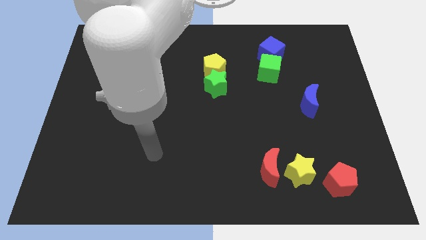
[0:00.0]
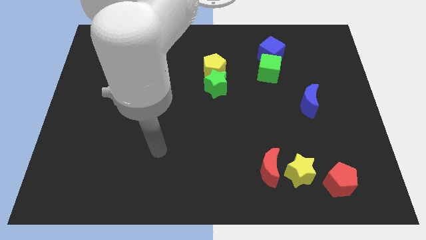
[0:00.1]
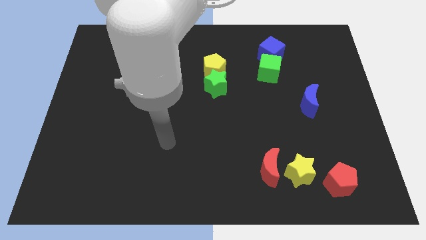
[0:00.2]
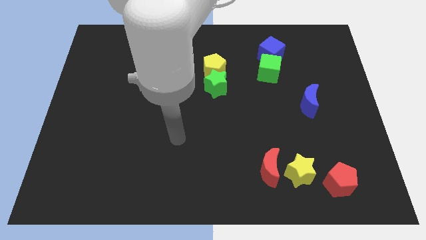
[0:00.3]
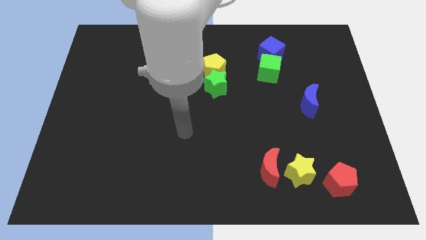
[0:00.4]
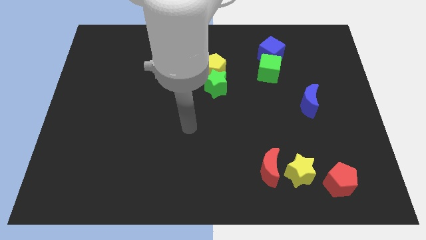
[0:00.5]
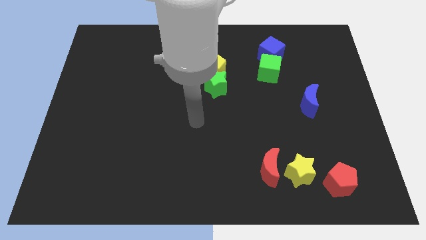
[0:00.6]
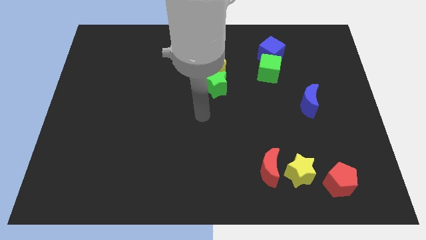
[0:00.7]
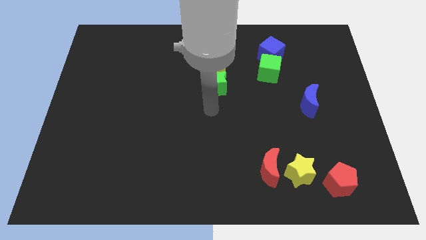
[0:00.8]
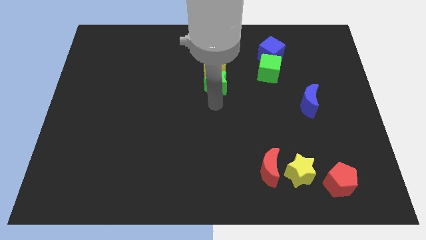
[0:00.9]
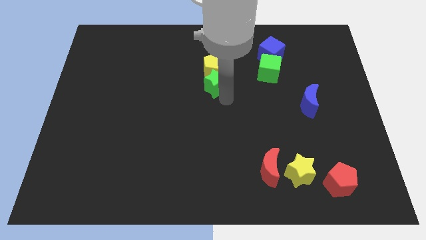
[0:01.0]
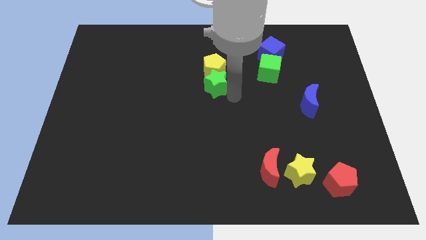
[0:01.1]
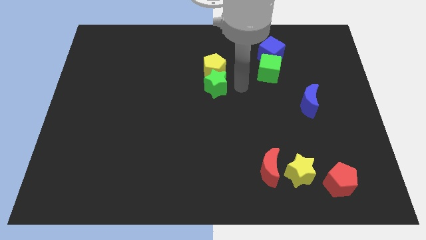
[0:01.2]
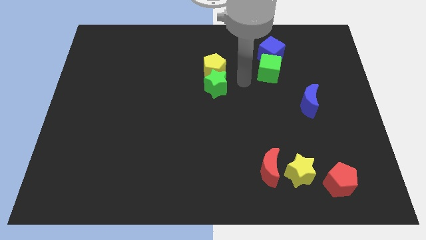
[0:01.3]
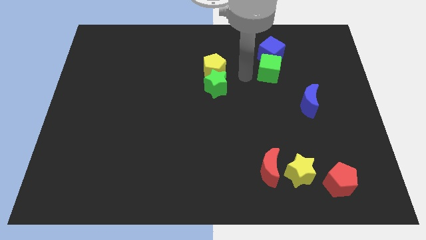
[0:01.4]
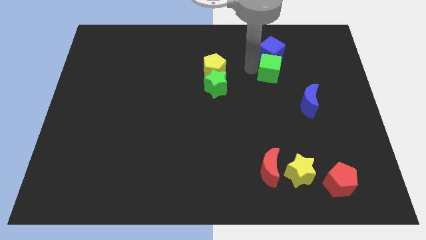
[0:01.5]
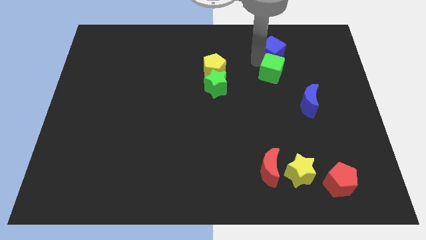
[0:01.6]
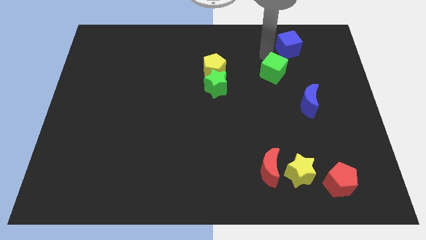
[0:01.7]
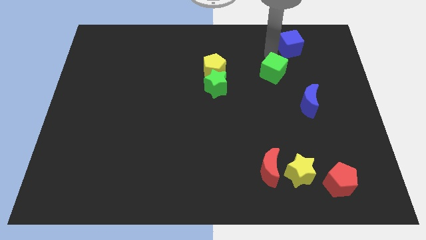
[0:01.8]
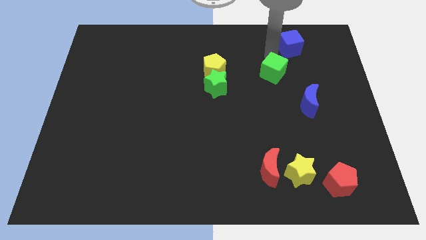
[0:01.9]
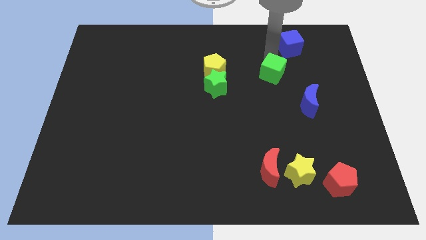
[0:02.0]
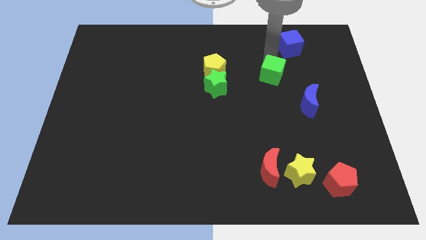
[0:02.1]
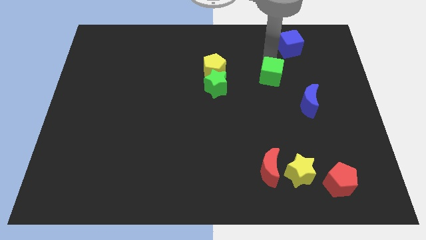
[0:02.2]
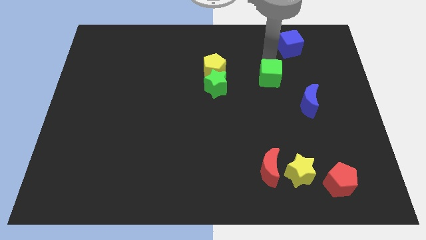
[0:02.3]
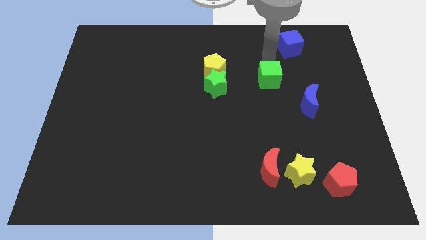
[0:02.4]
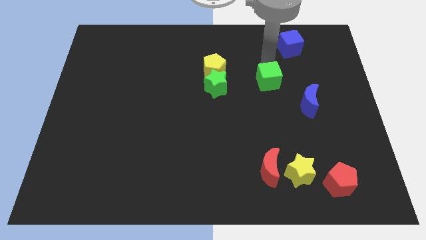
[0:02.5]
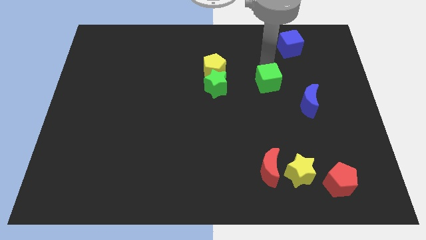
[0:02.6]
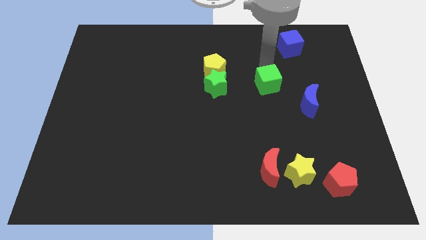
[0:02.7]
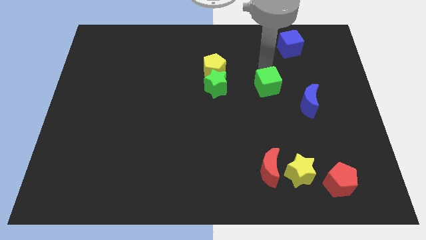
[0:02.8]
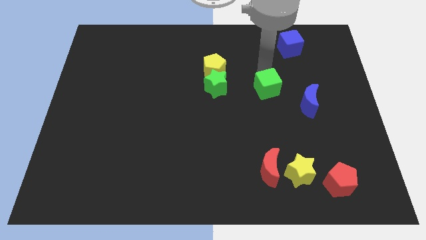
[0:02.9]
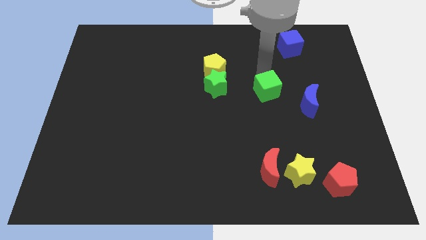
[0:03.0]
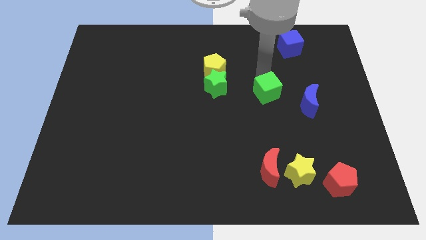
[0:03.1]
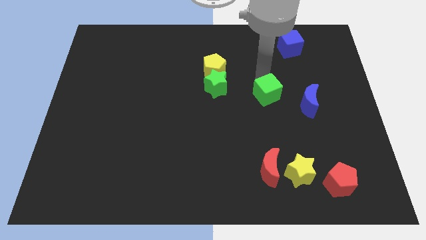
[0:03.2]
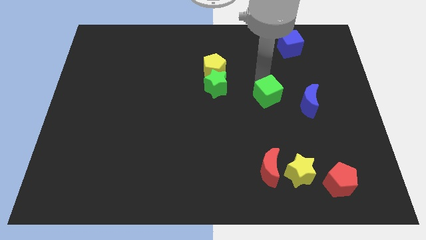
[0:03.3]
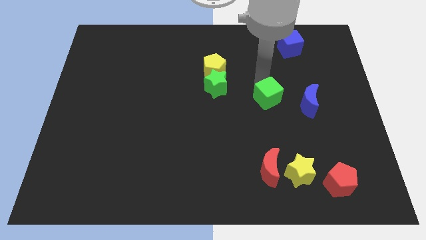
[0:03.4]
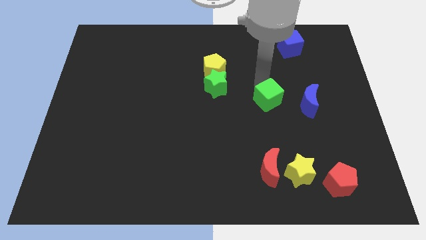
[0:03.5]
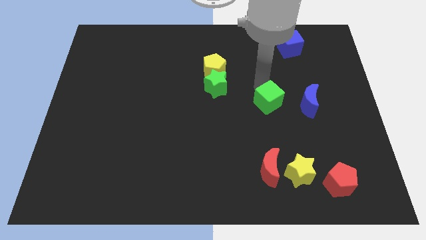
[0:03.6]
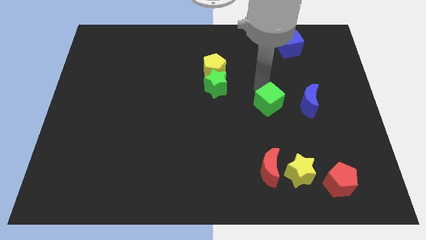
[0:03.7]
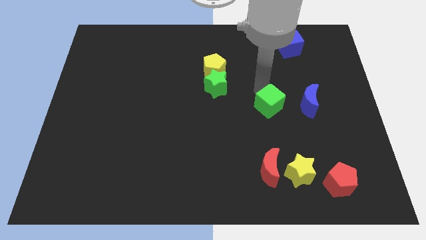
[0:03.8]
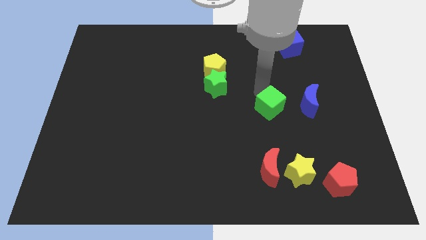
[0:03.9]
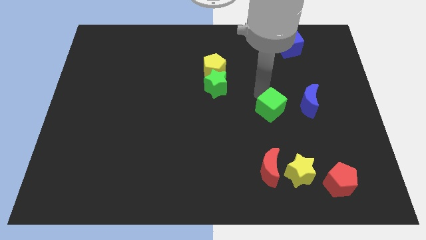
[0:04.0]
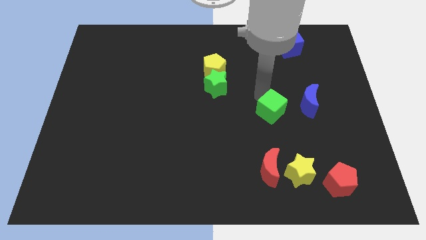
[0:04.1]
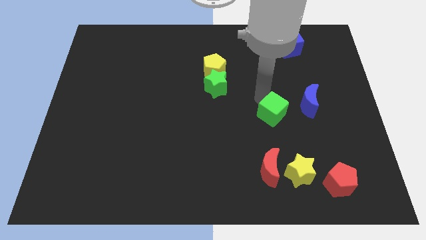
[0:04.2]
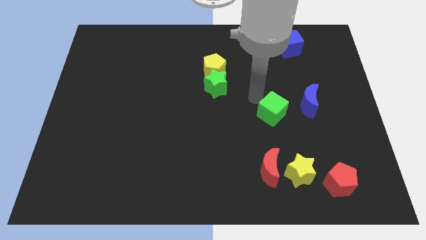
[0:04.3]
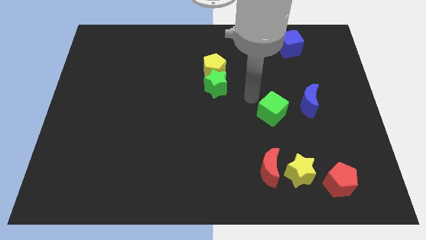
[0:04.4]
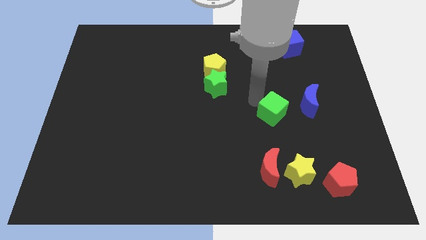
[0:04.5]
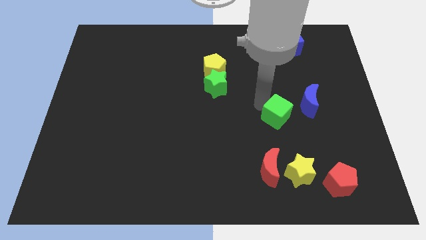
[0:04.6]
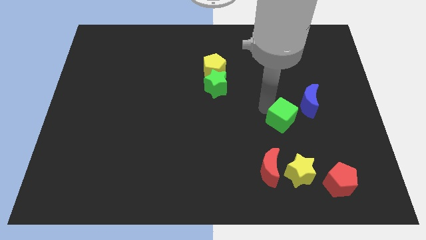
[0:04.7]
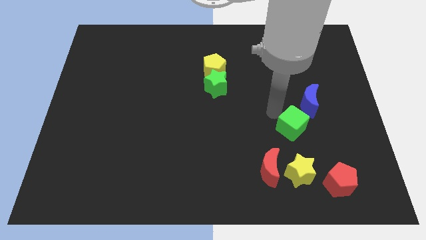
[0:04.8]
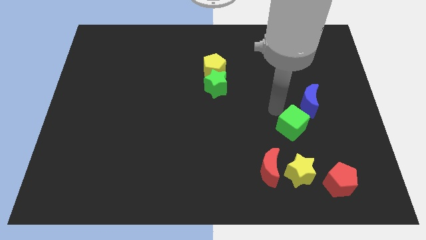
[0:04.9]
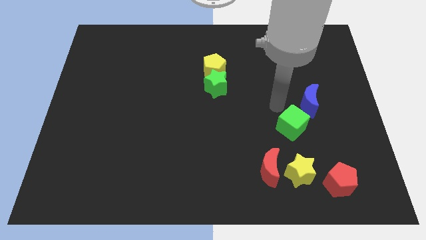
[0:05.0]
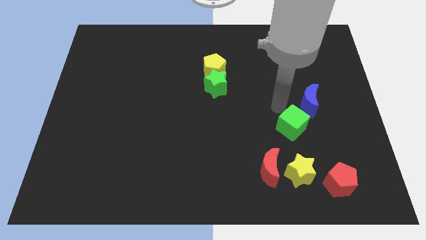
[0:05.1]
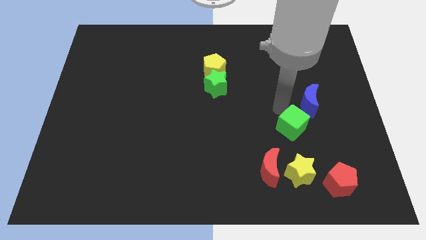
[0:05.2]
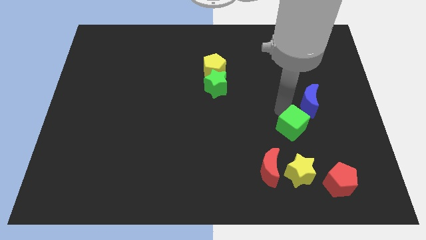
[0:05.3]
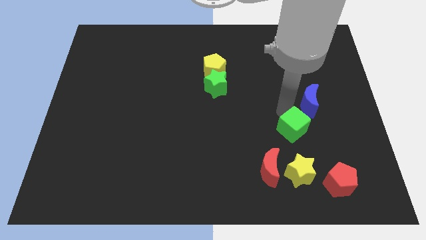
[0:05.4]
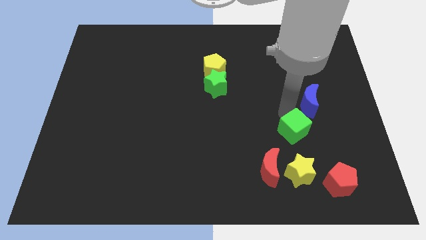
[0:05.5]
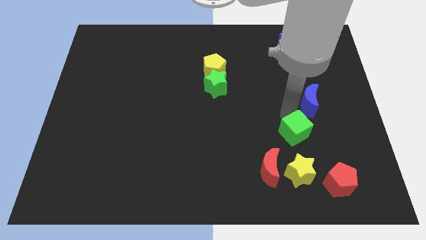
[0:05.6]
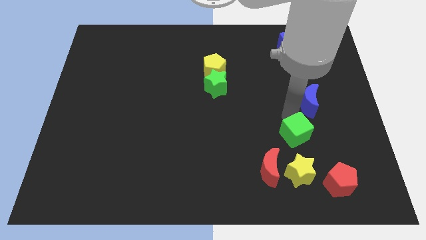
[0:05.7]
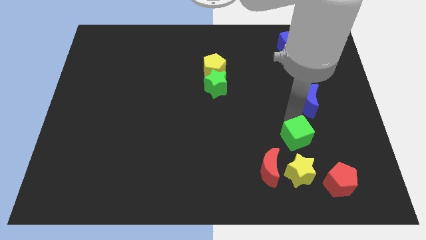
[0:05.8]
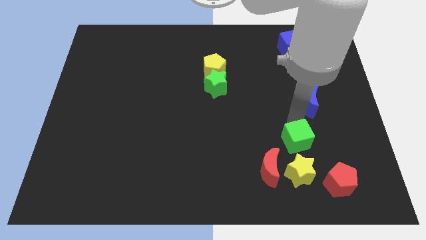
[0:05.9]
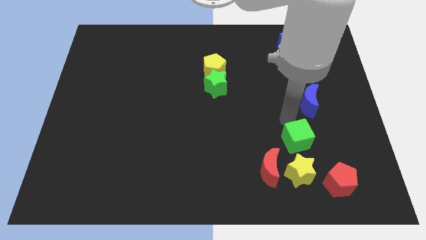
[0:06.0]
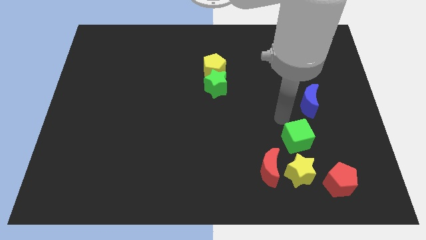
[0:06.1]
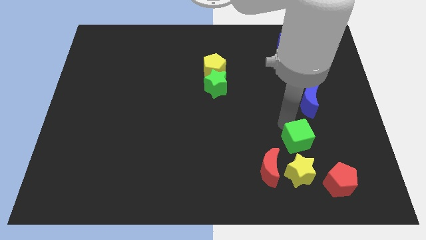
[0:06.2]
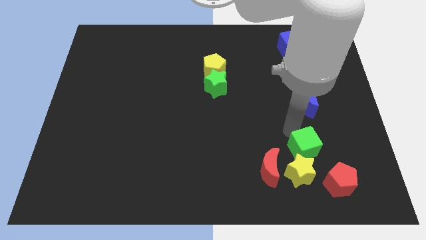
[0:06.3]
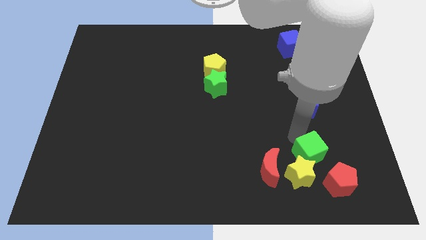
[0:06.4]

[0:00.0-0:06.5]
push the green cube to the right side of the red moon

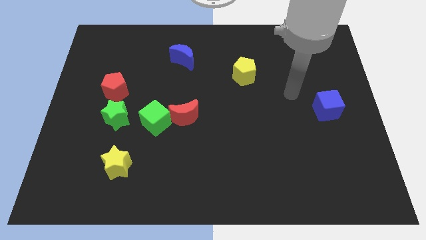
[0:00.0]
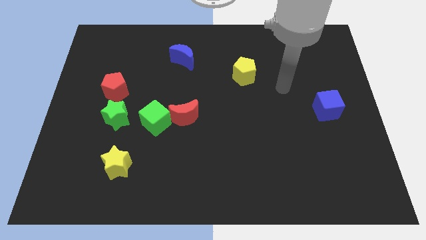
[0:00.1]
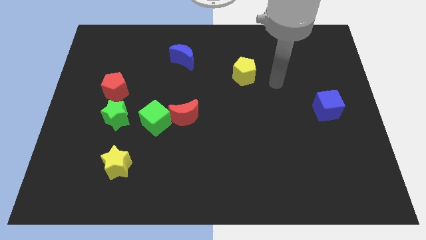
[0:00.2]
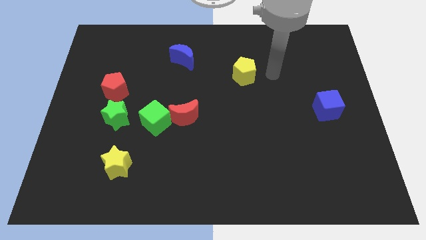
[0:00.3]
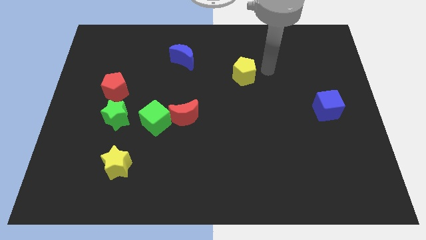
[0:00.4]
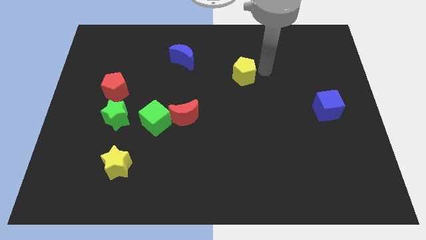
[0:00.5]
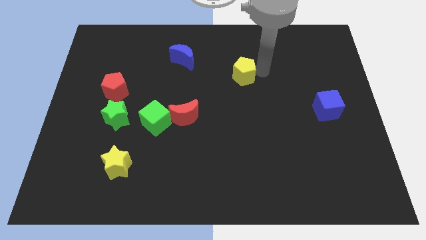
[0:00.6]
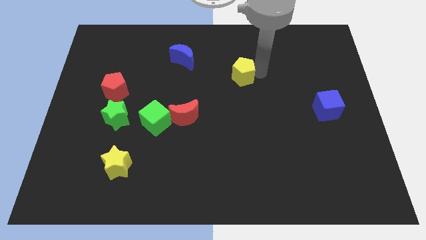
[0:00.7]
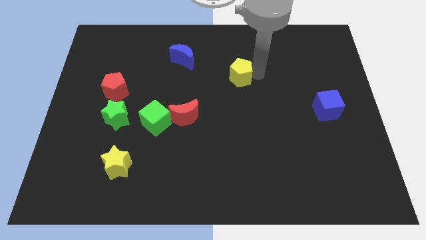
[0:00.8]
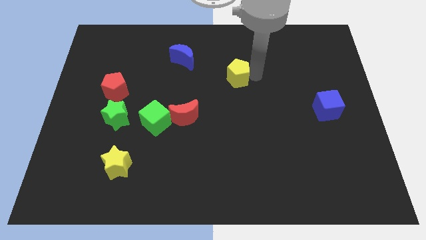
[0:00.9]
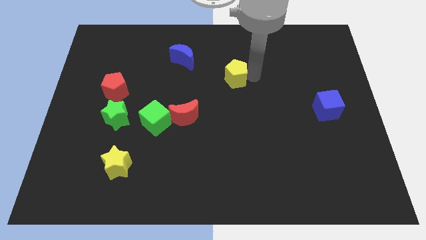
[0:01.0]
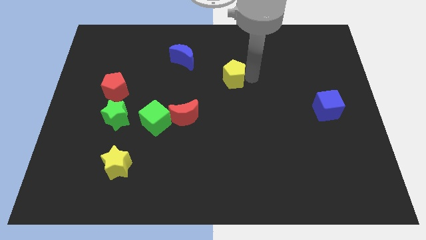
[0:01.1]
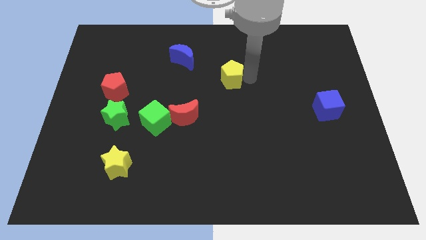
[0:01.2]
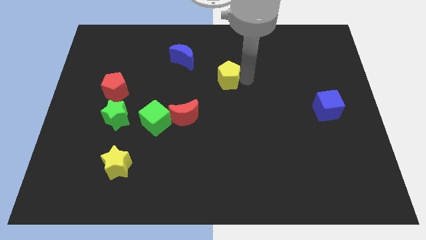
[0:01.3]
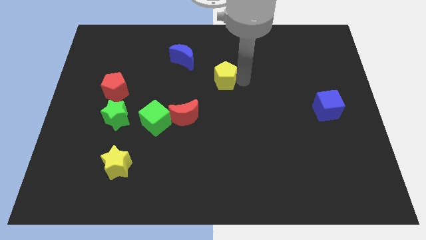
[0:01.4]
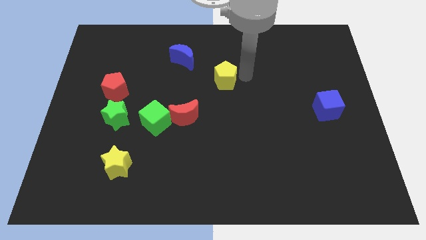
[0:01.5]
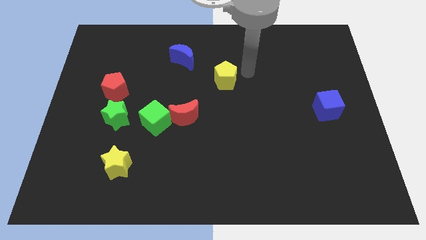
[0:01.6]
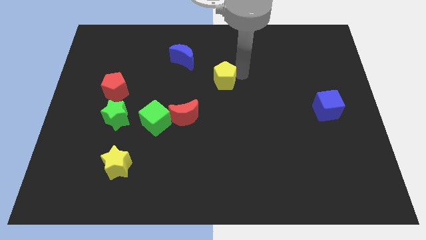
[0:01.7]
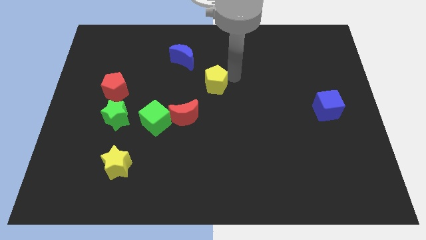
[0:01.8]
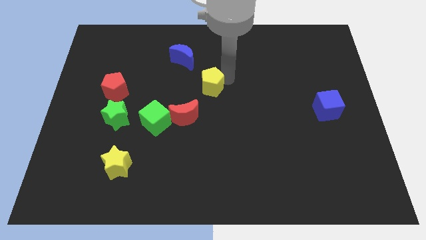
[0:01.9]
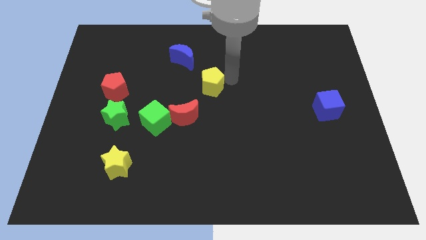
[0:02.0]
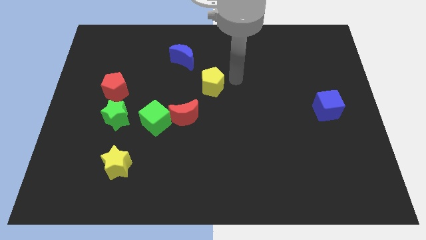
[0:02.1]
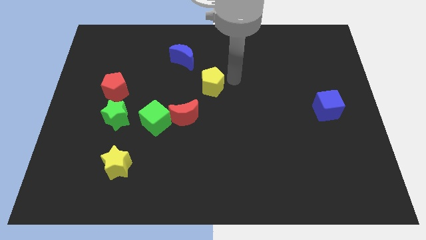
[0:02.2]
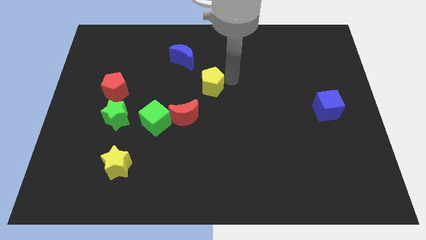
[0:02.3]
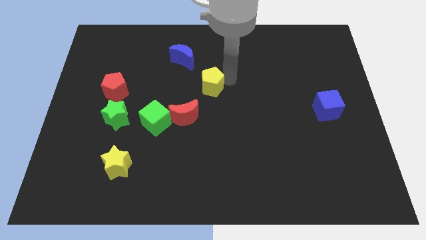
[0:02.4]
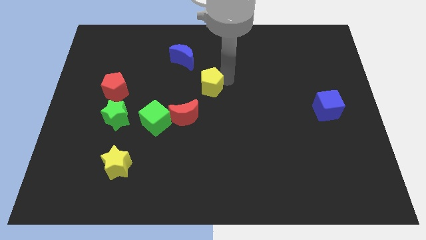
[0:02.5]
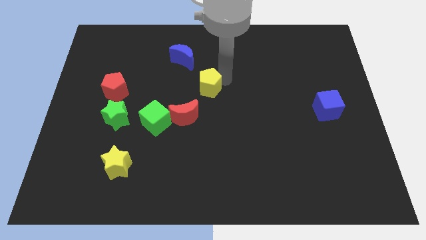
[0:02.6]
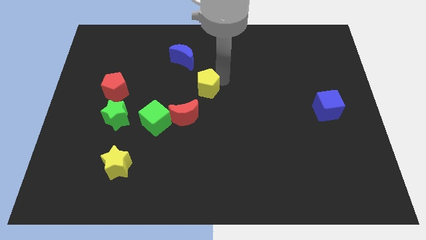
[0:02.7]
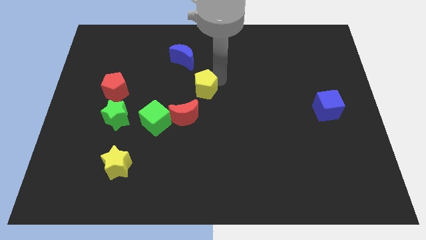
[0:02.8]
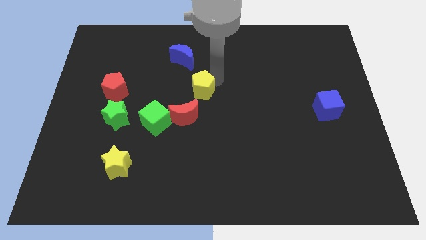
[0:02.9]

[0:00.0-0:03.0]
slide the yellow pentagon to the bottom side of the blue moon
